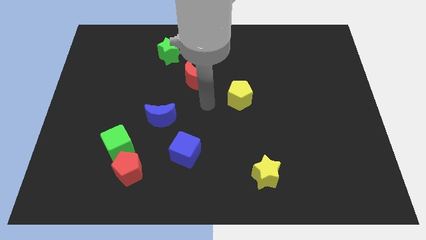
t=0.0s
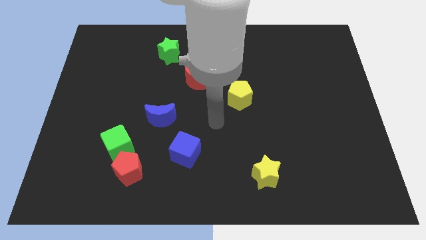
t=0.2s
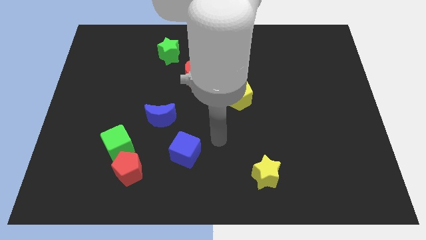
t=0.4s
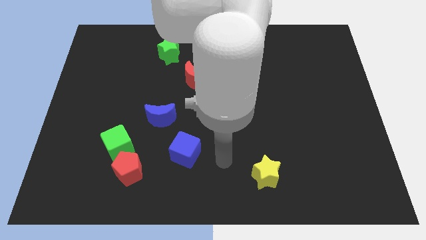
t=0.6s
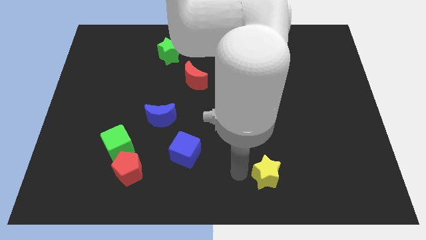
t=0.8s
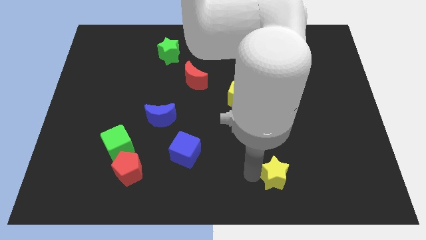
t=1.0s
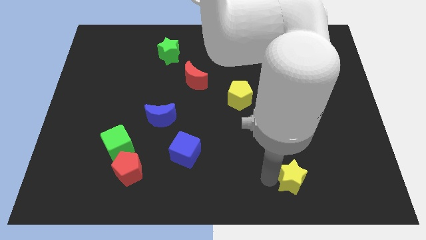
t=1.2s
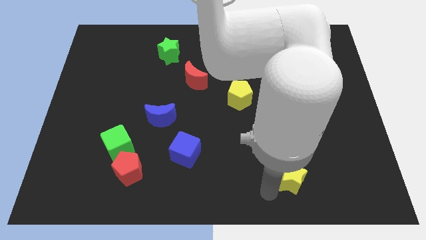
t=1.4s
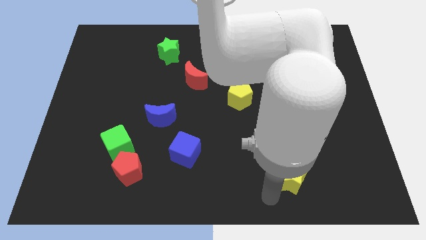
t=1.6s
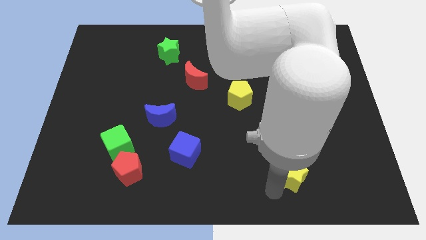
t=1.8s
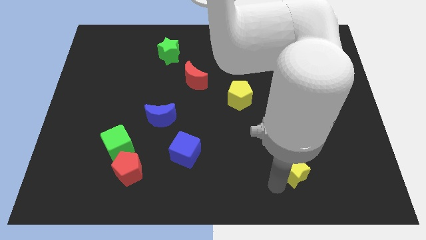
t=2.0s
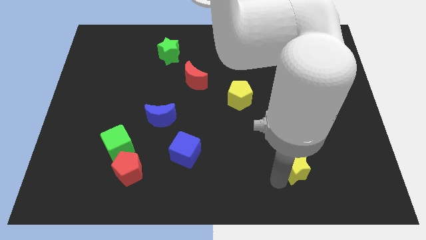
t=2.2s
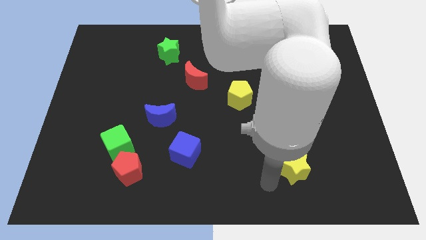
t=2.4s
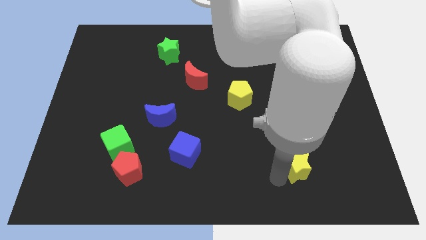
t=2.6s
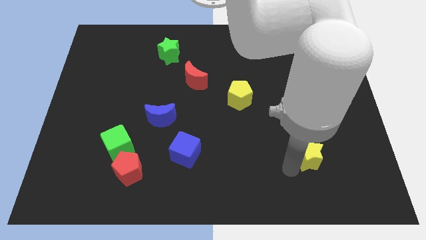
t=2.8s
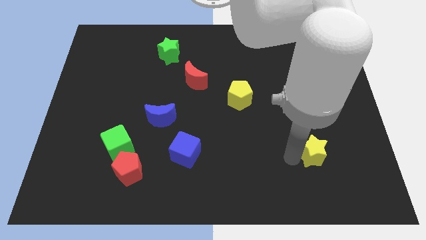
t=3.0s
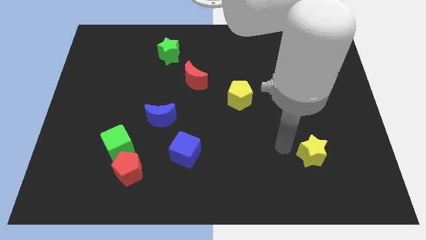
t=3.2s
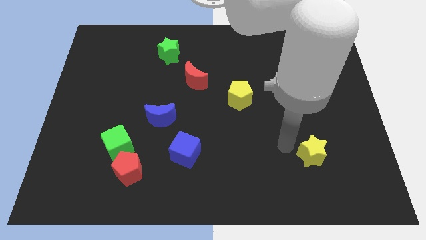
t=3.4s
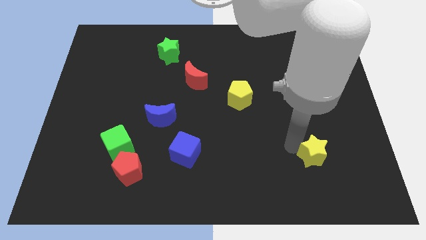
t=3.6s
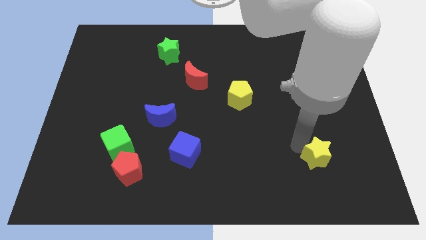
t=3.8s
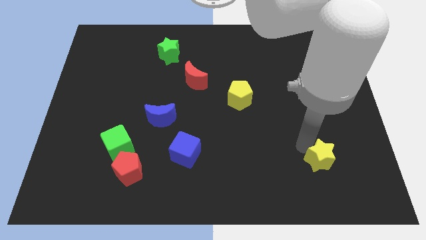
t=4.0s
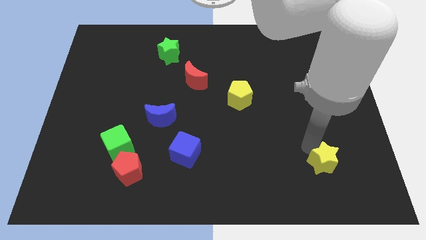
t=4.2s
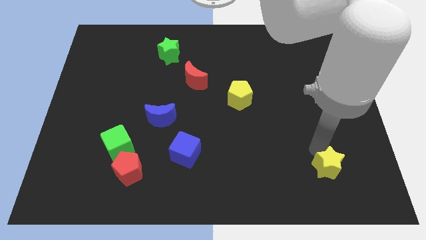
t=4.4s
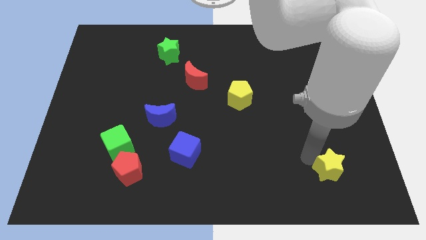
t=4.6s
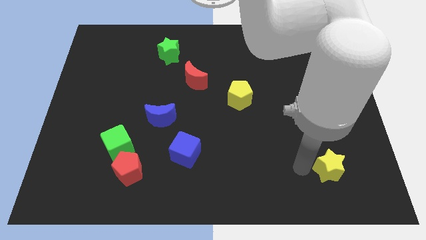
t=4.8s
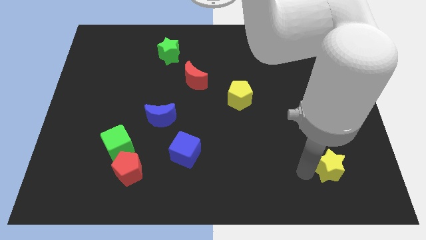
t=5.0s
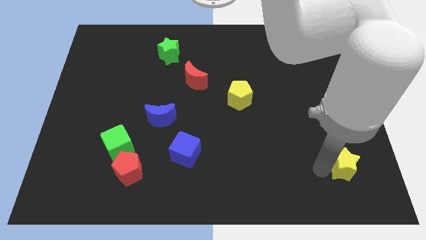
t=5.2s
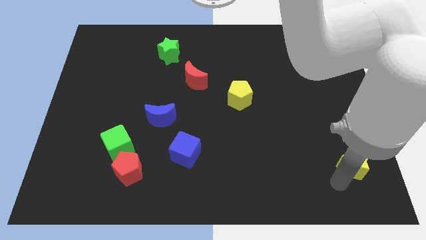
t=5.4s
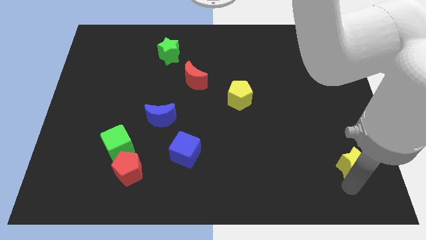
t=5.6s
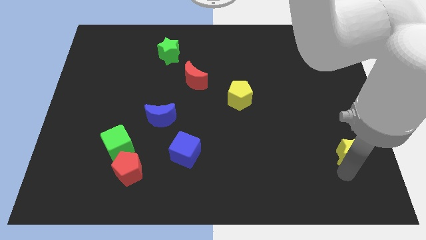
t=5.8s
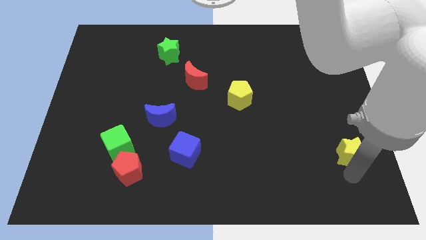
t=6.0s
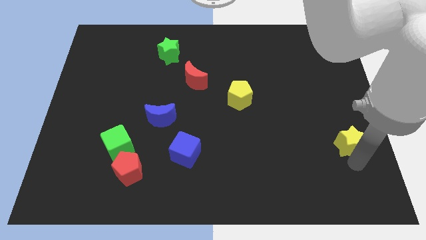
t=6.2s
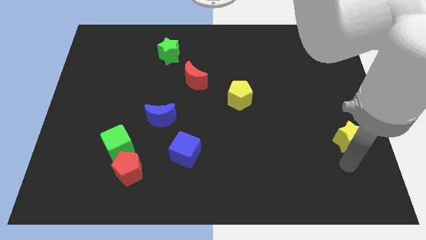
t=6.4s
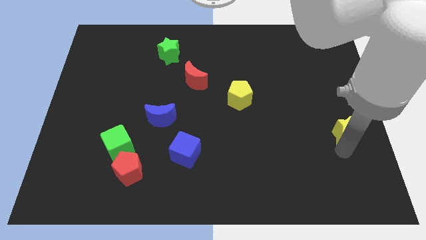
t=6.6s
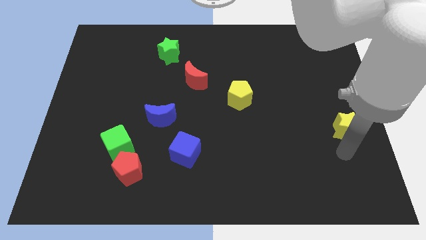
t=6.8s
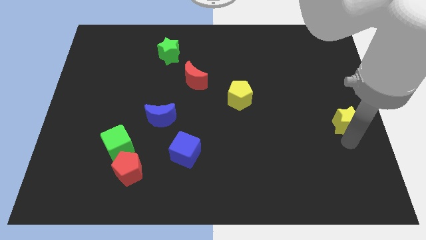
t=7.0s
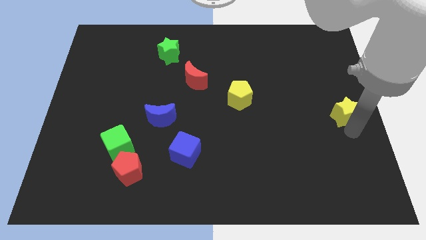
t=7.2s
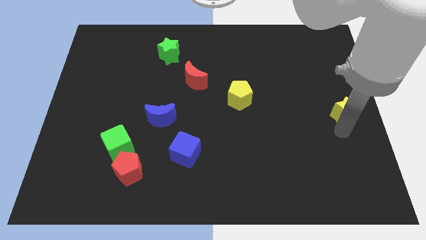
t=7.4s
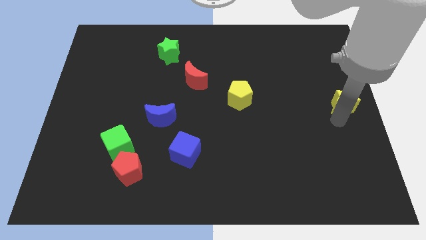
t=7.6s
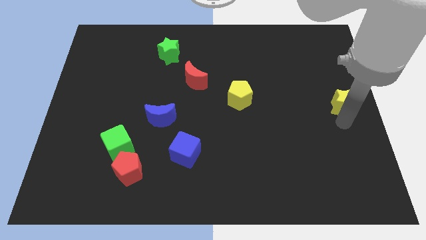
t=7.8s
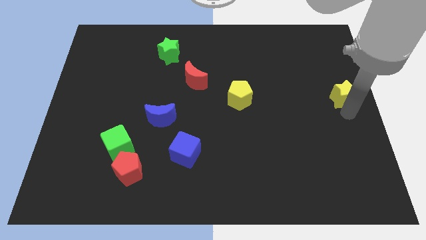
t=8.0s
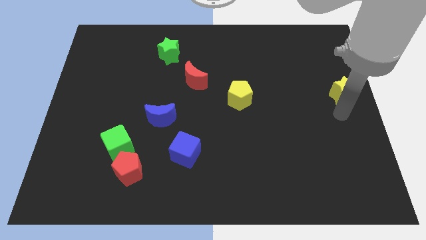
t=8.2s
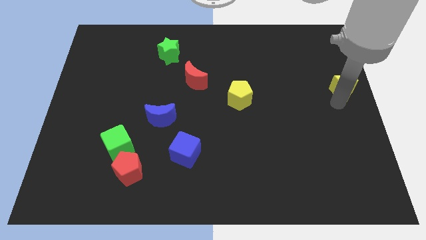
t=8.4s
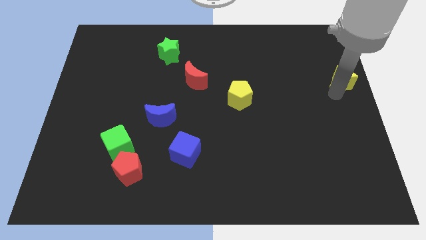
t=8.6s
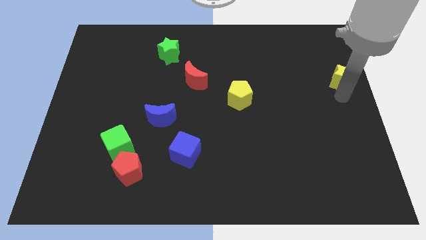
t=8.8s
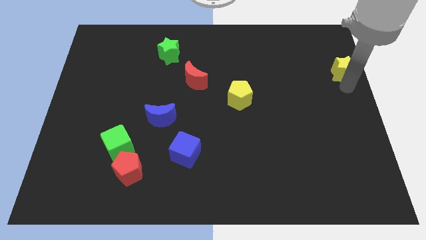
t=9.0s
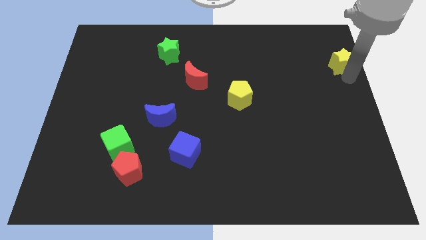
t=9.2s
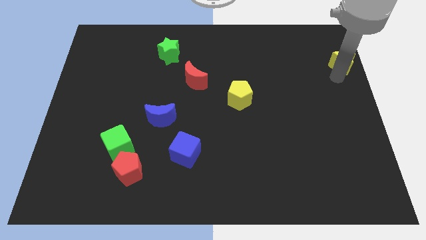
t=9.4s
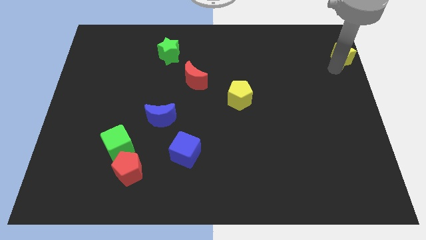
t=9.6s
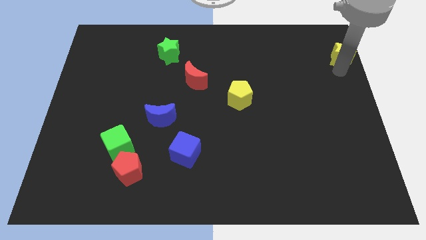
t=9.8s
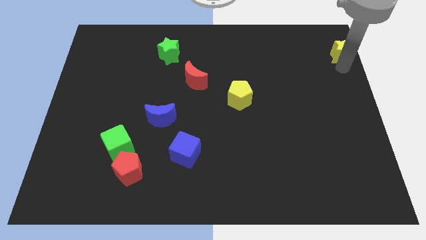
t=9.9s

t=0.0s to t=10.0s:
put the yellow star to the top right of the board

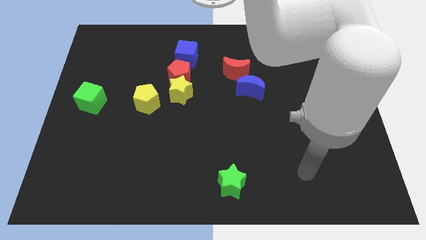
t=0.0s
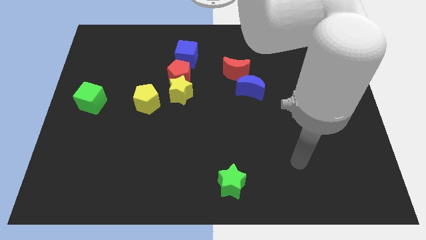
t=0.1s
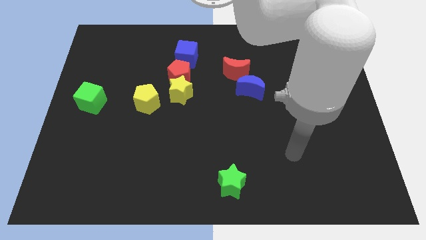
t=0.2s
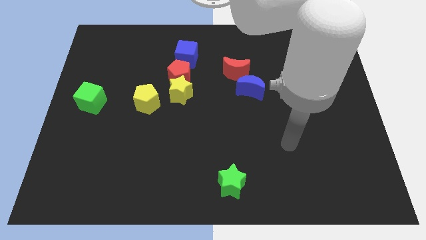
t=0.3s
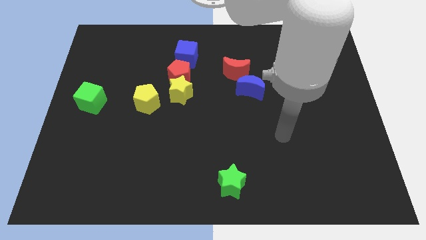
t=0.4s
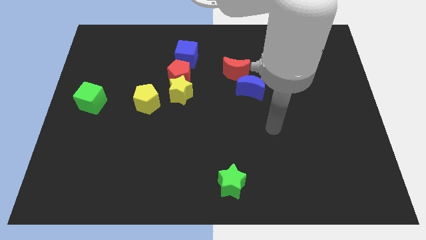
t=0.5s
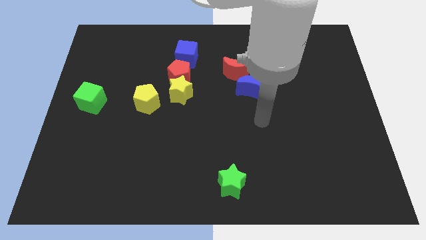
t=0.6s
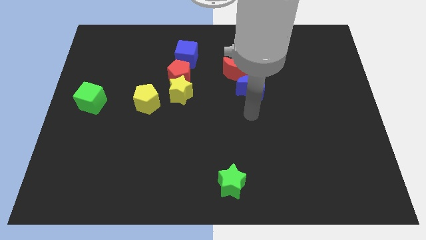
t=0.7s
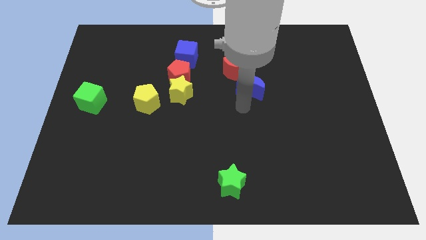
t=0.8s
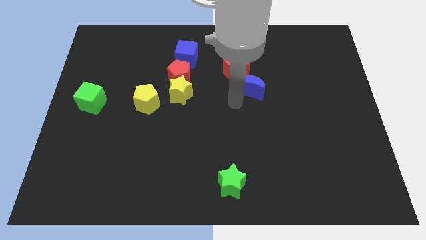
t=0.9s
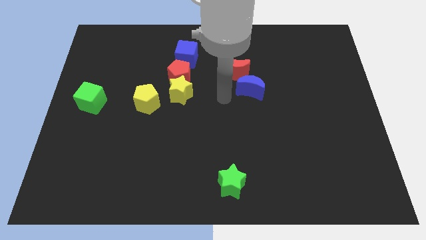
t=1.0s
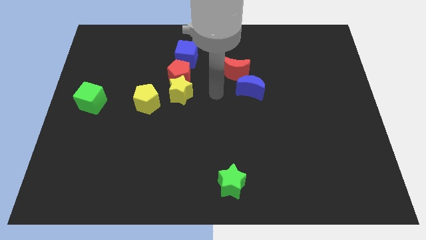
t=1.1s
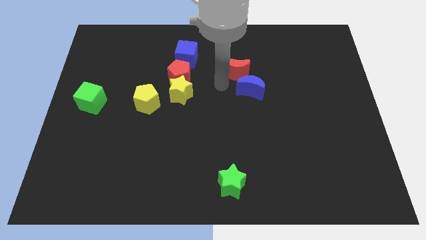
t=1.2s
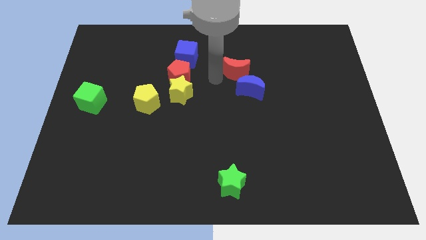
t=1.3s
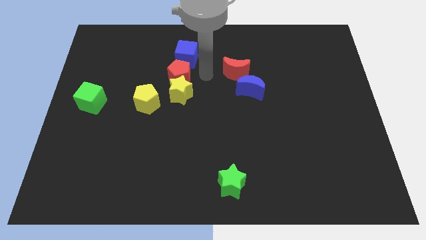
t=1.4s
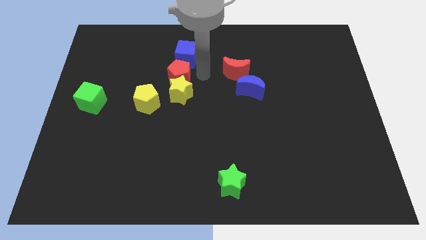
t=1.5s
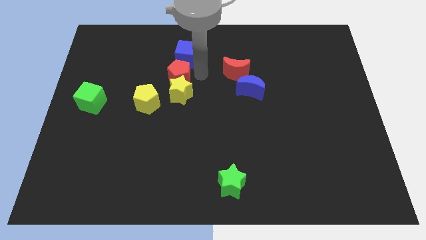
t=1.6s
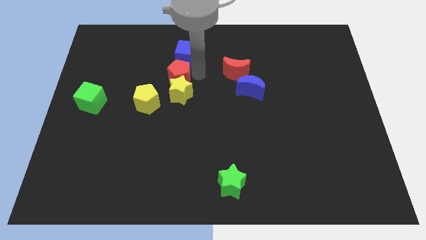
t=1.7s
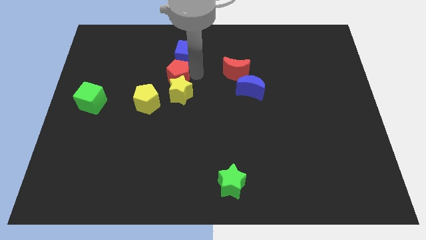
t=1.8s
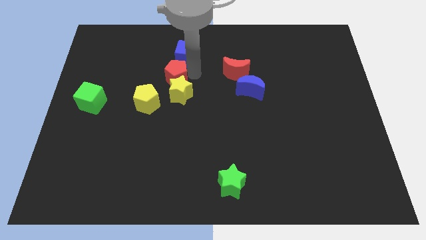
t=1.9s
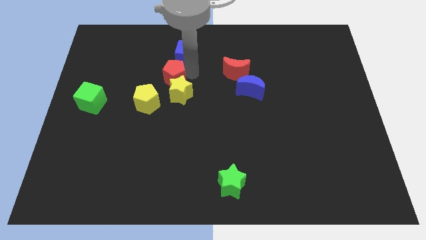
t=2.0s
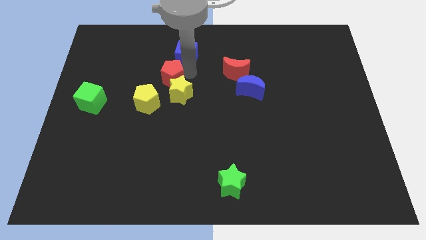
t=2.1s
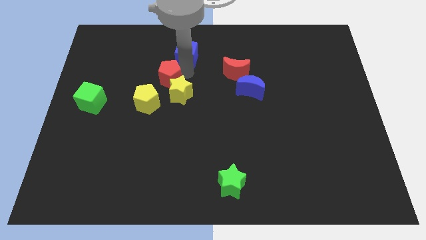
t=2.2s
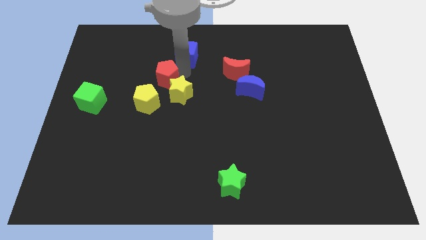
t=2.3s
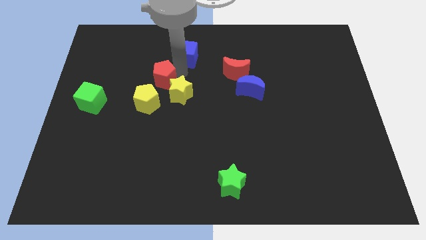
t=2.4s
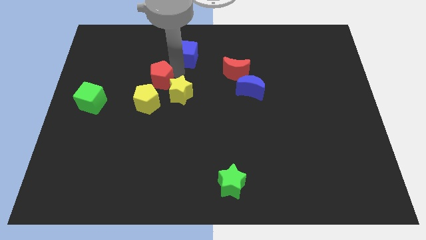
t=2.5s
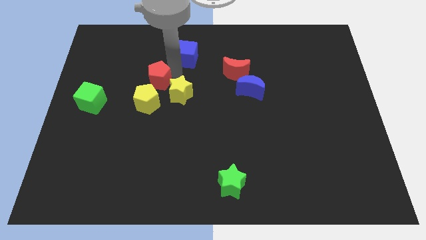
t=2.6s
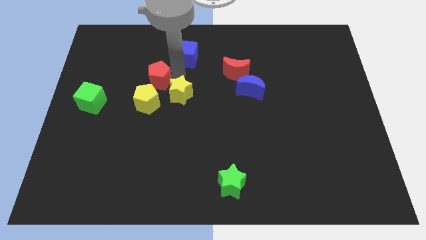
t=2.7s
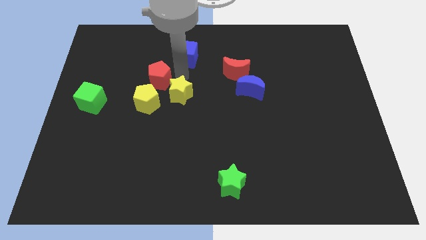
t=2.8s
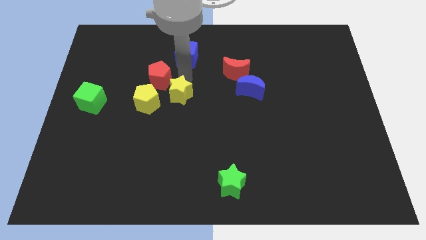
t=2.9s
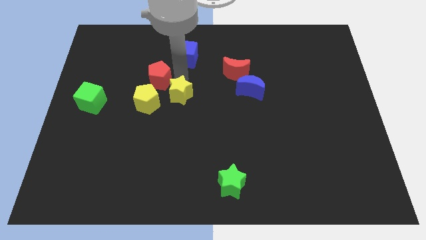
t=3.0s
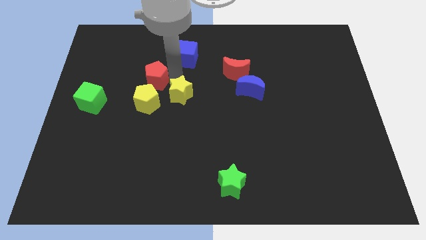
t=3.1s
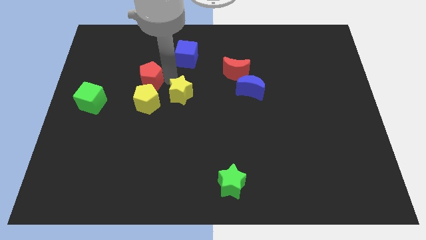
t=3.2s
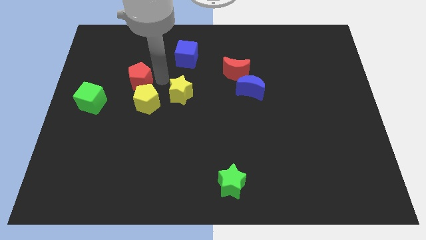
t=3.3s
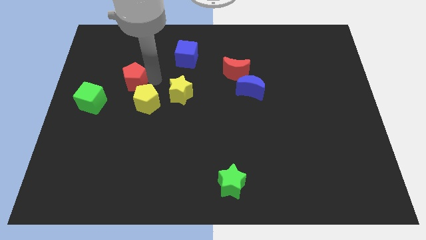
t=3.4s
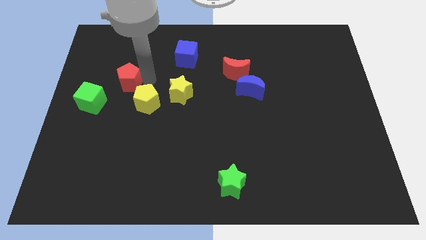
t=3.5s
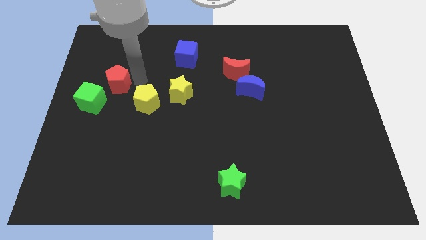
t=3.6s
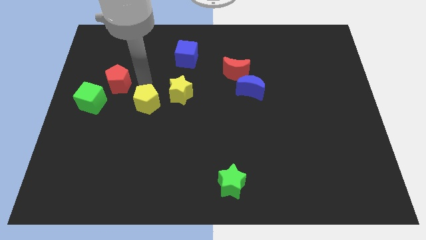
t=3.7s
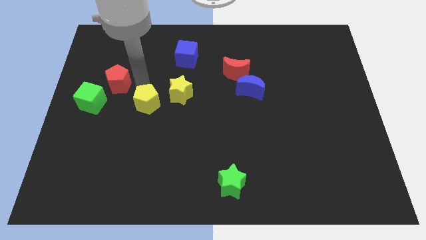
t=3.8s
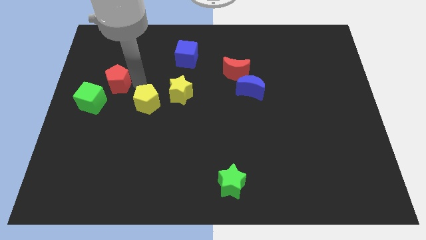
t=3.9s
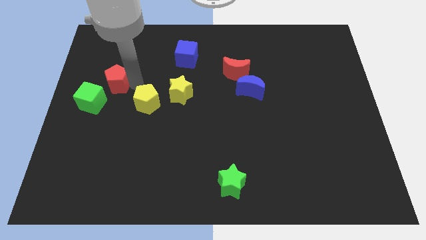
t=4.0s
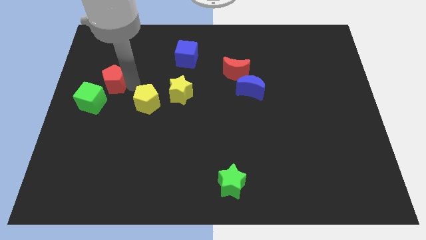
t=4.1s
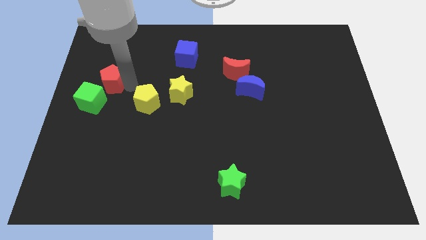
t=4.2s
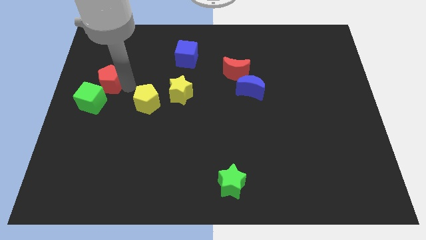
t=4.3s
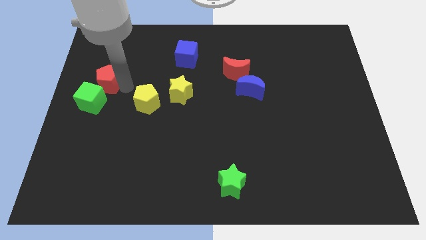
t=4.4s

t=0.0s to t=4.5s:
move the red pentagon to the left side
